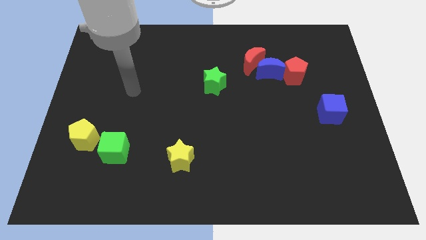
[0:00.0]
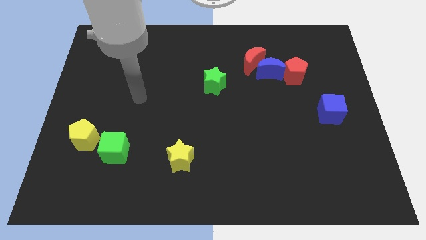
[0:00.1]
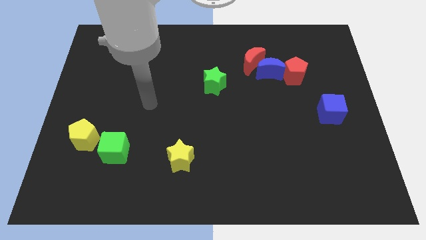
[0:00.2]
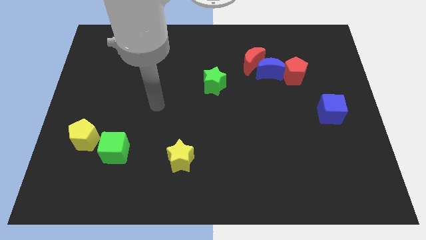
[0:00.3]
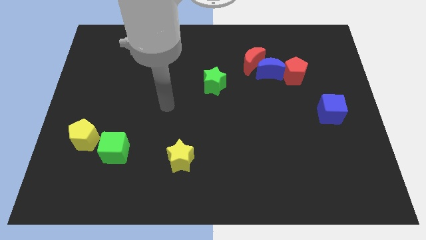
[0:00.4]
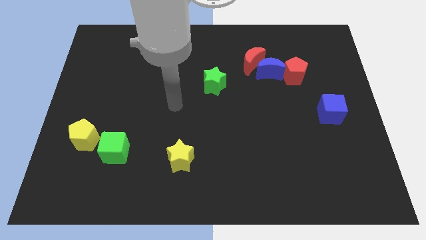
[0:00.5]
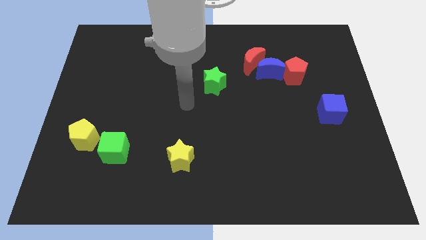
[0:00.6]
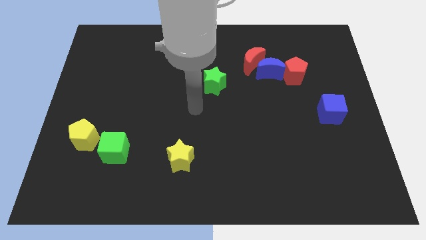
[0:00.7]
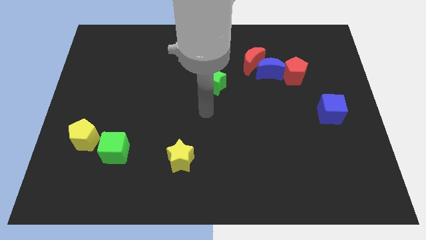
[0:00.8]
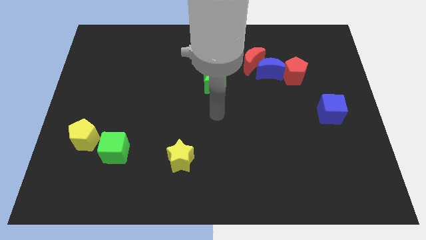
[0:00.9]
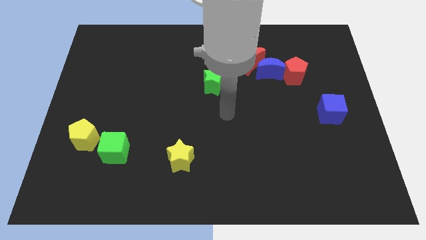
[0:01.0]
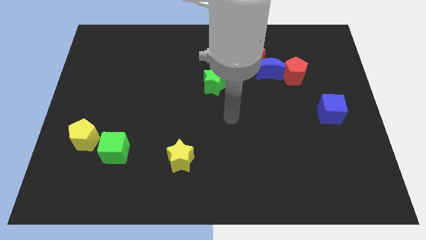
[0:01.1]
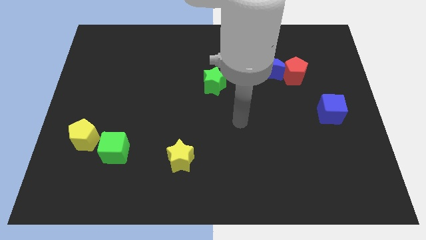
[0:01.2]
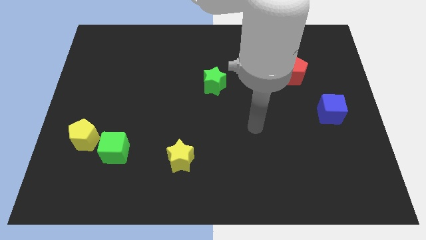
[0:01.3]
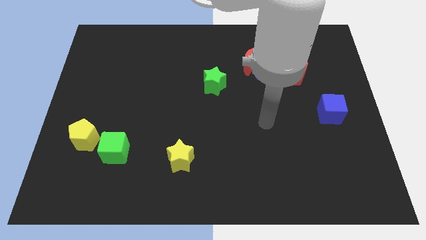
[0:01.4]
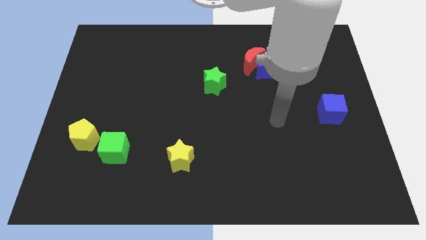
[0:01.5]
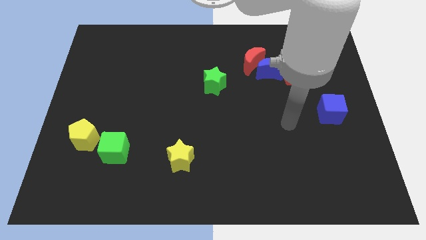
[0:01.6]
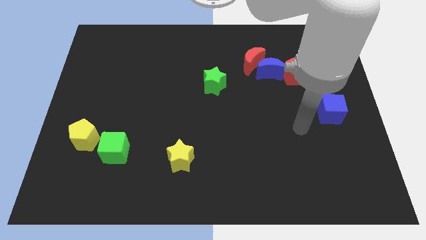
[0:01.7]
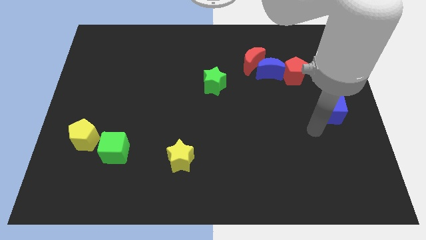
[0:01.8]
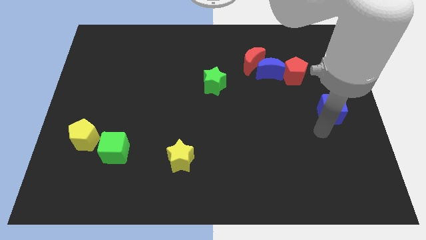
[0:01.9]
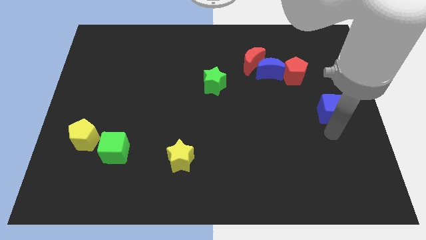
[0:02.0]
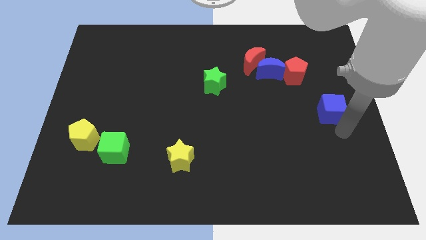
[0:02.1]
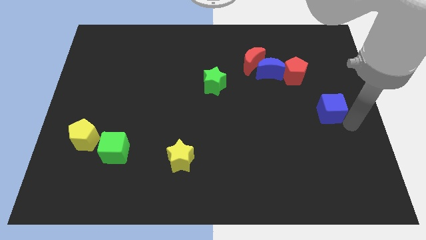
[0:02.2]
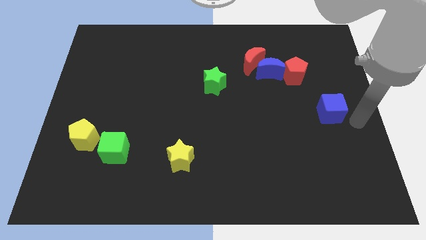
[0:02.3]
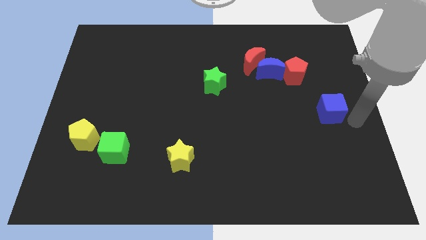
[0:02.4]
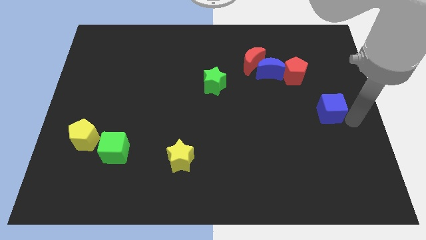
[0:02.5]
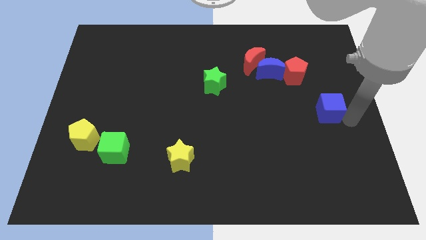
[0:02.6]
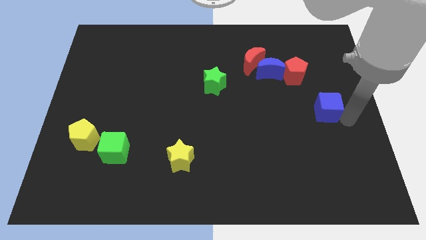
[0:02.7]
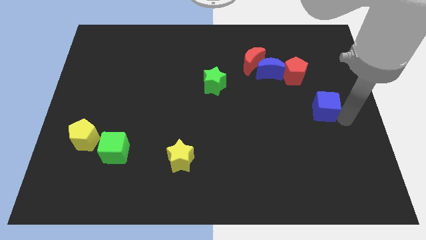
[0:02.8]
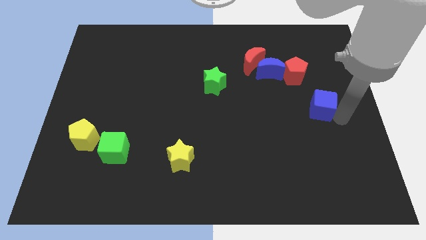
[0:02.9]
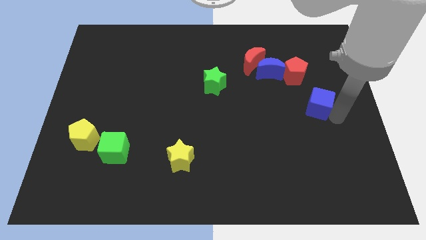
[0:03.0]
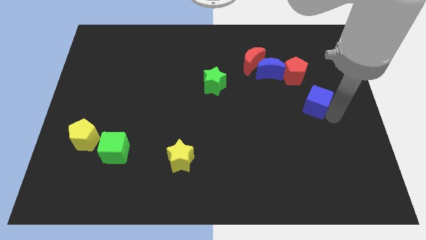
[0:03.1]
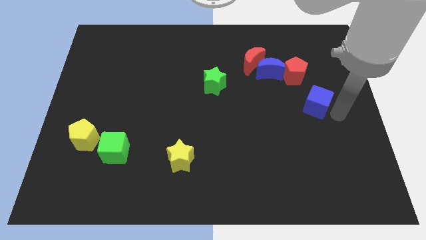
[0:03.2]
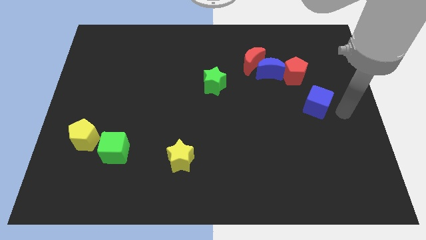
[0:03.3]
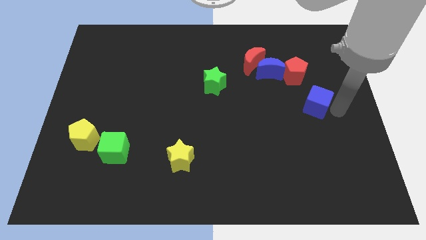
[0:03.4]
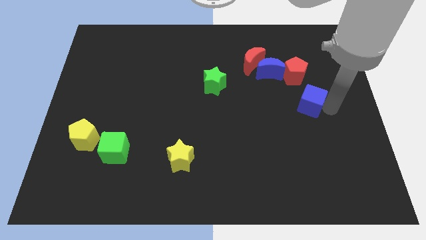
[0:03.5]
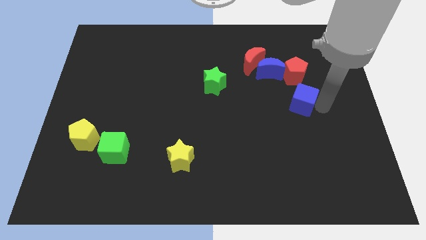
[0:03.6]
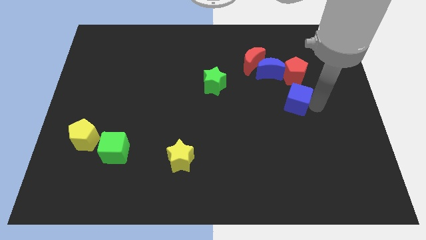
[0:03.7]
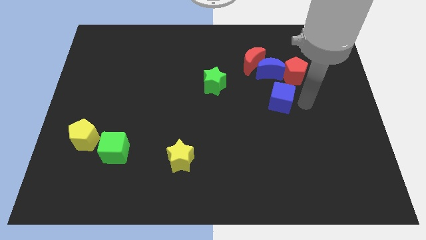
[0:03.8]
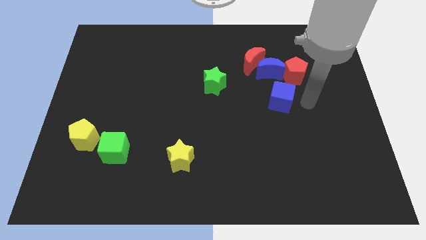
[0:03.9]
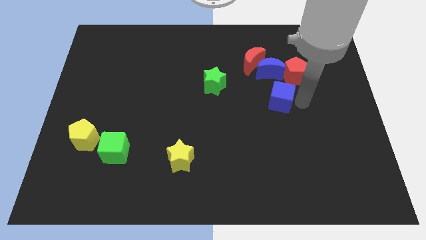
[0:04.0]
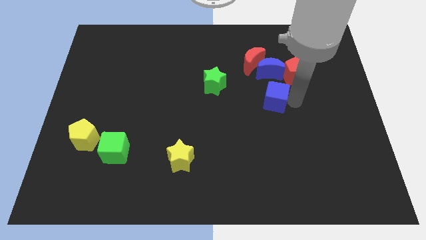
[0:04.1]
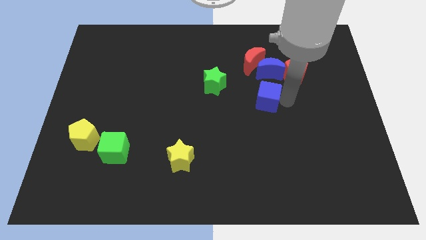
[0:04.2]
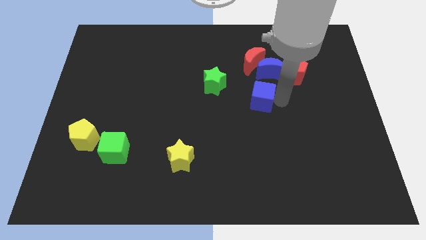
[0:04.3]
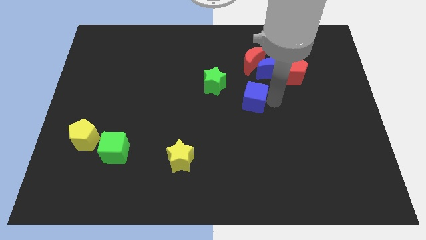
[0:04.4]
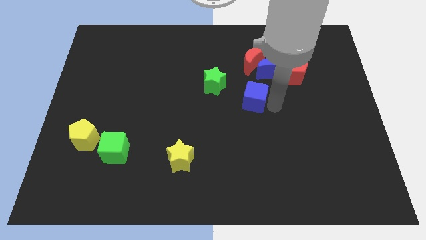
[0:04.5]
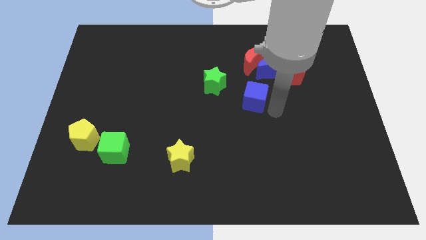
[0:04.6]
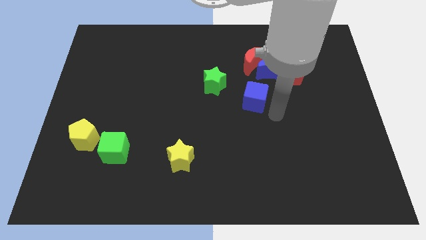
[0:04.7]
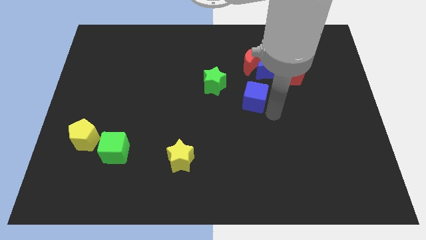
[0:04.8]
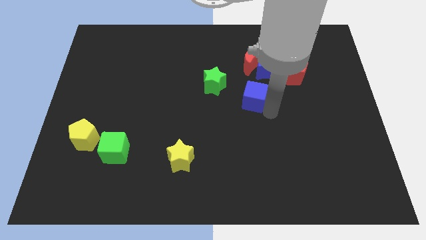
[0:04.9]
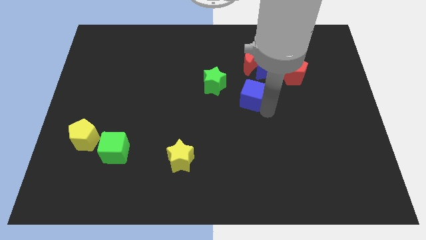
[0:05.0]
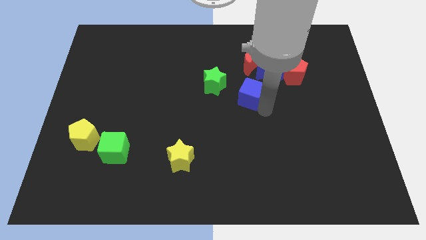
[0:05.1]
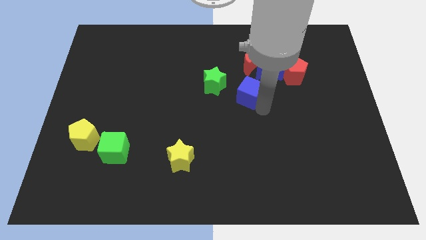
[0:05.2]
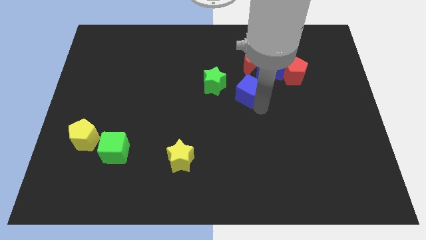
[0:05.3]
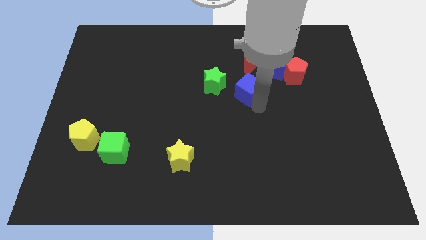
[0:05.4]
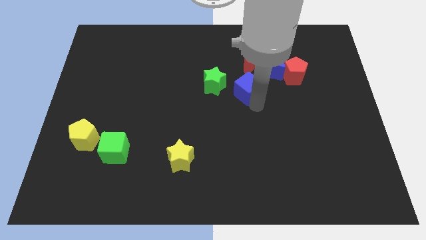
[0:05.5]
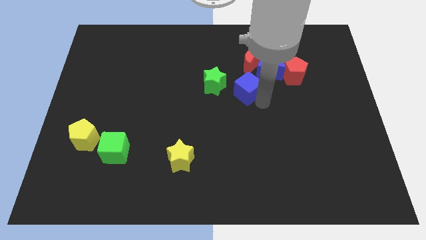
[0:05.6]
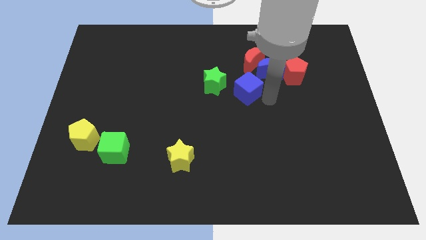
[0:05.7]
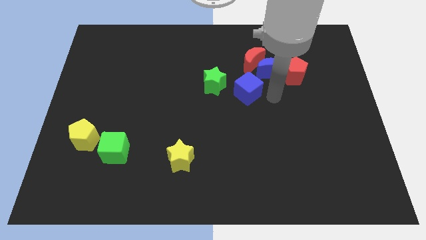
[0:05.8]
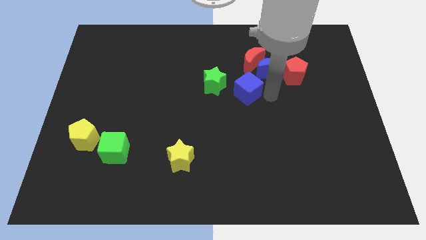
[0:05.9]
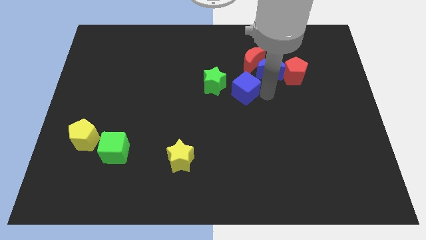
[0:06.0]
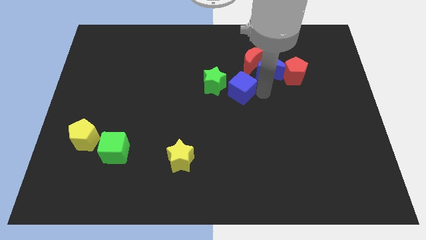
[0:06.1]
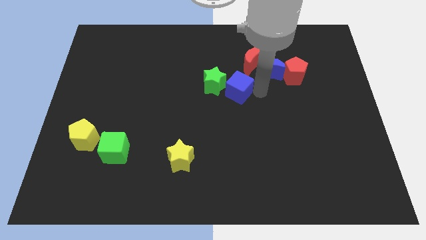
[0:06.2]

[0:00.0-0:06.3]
put the blue cube towards the green star

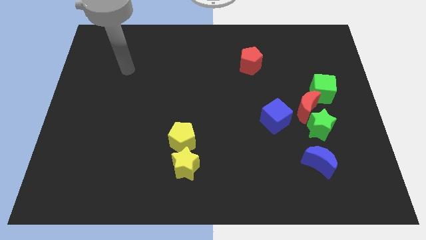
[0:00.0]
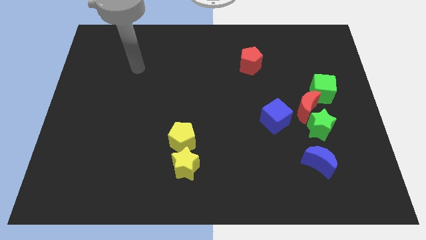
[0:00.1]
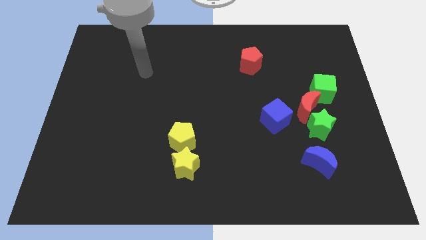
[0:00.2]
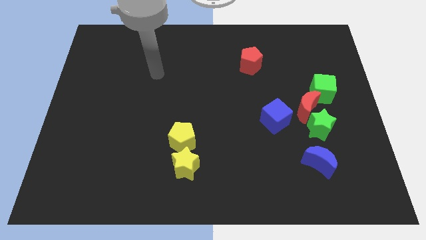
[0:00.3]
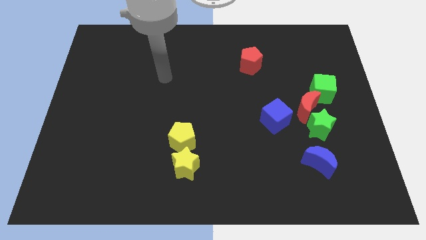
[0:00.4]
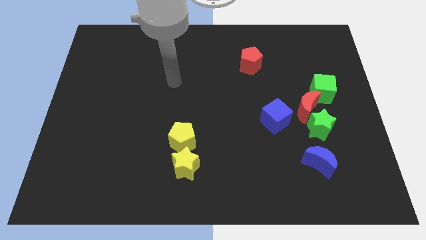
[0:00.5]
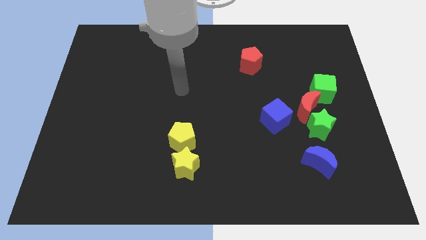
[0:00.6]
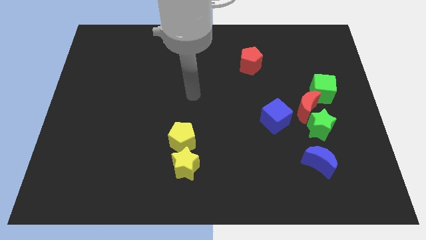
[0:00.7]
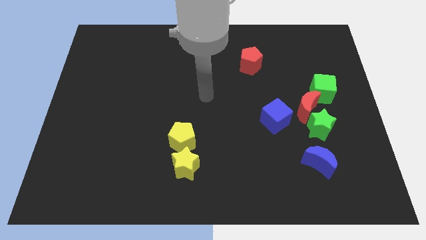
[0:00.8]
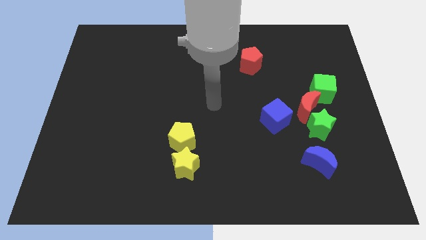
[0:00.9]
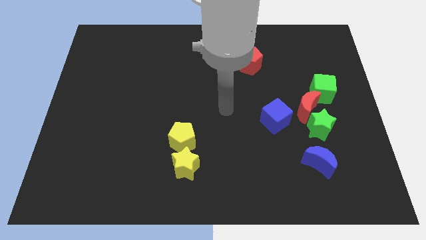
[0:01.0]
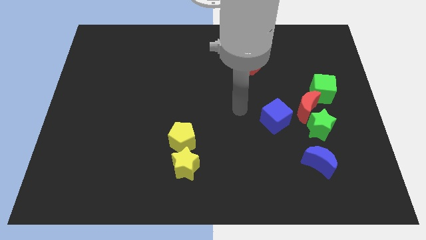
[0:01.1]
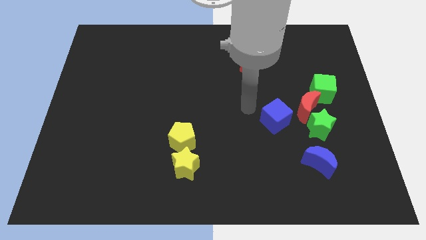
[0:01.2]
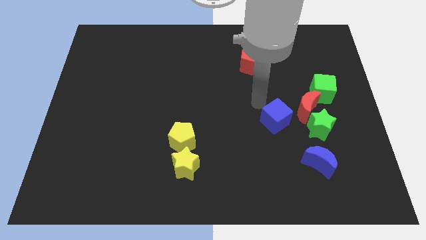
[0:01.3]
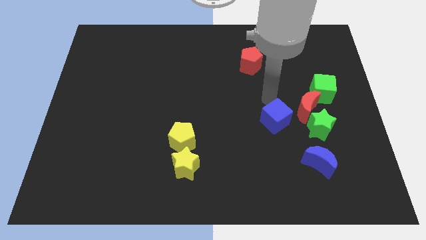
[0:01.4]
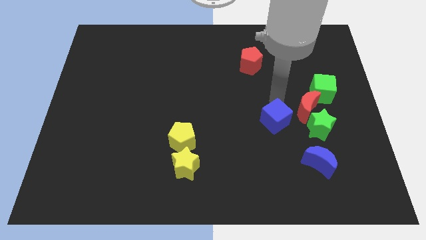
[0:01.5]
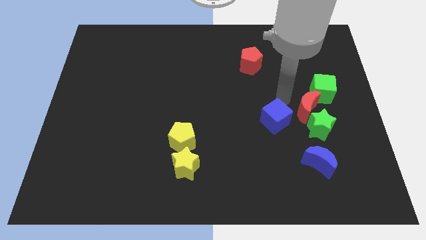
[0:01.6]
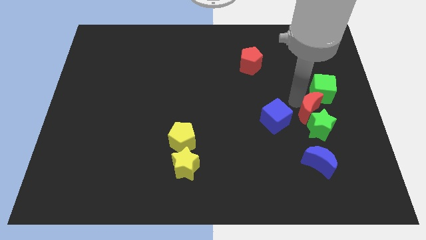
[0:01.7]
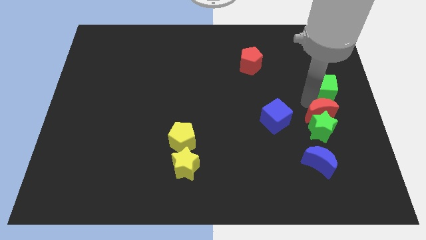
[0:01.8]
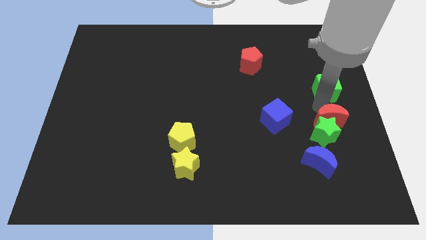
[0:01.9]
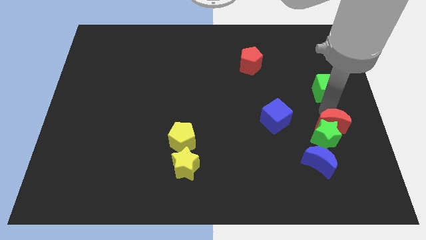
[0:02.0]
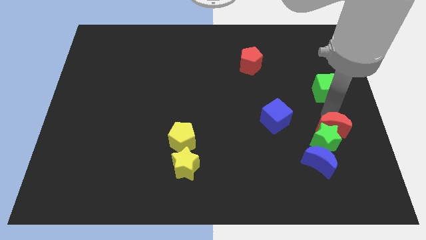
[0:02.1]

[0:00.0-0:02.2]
put the green star next to the blue moon
